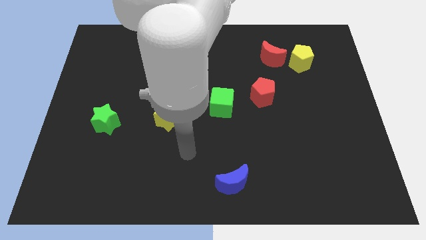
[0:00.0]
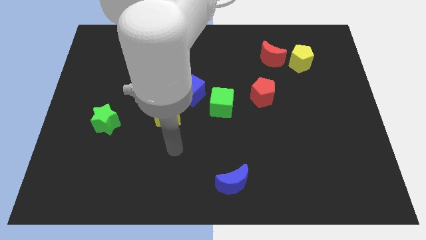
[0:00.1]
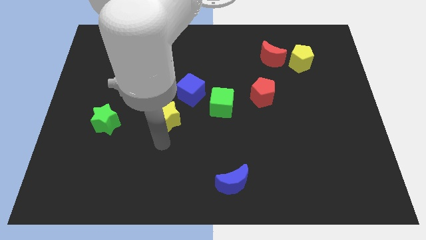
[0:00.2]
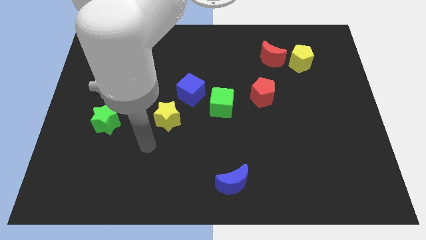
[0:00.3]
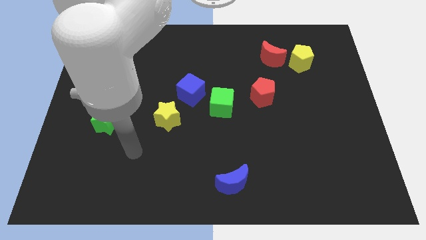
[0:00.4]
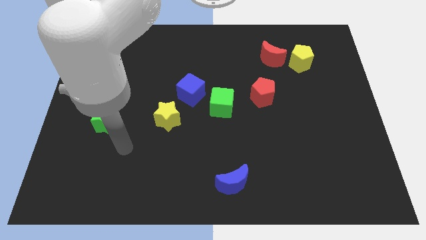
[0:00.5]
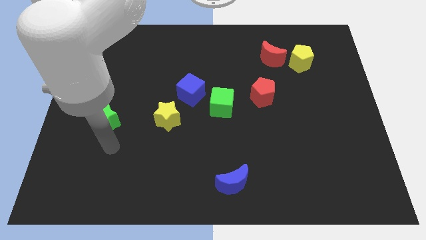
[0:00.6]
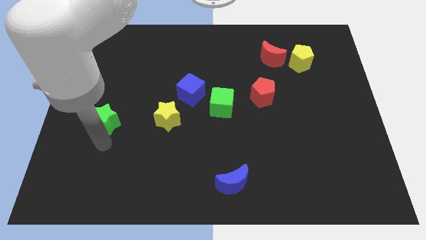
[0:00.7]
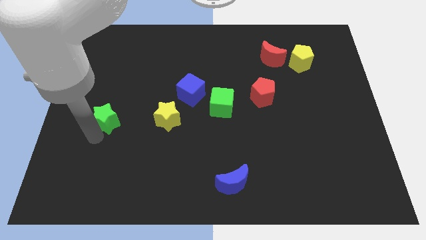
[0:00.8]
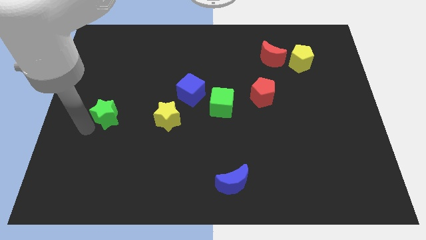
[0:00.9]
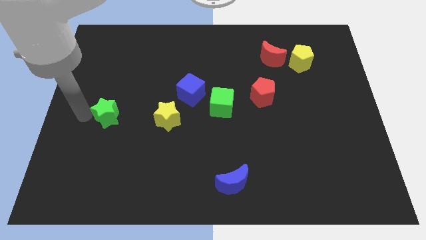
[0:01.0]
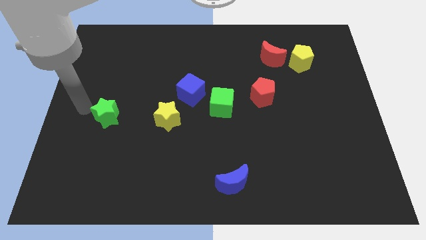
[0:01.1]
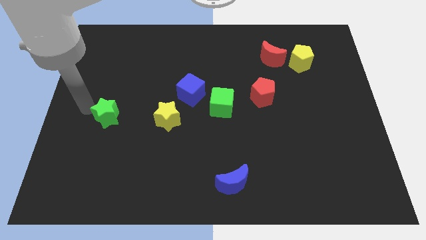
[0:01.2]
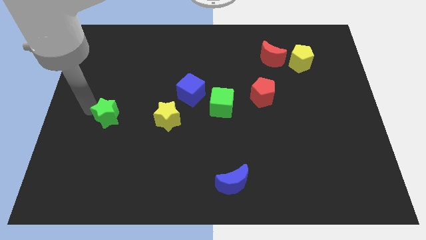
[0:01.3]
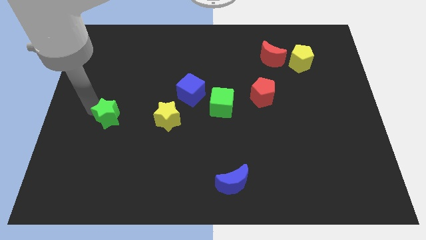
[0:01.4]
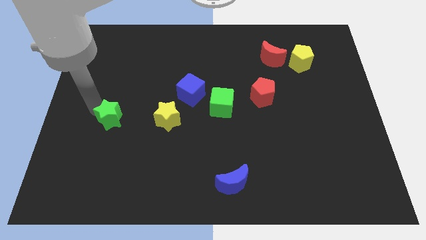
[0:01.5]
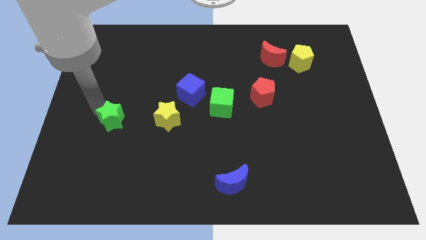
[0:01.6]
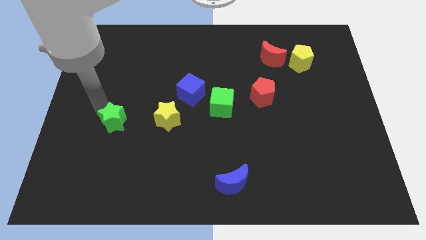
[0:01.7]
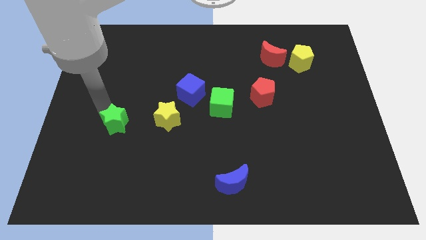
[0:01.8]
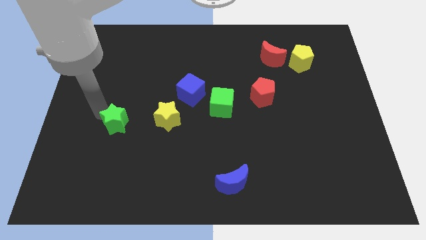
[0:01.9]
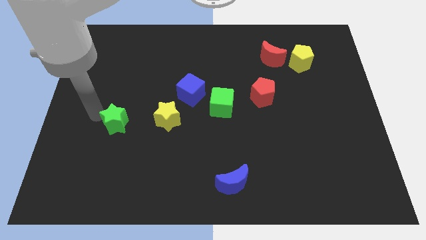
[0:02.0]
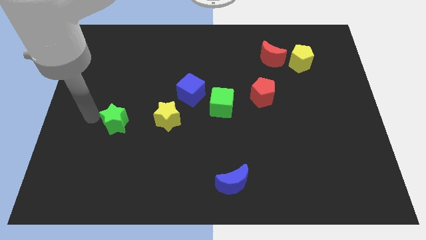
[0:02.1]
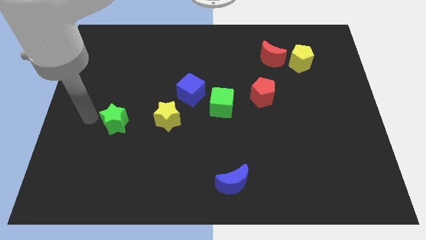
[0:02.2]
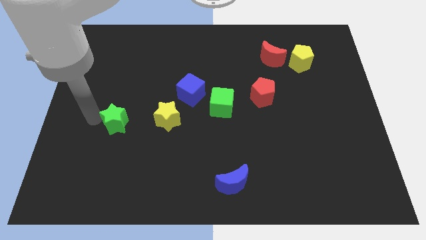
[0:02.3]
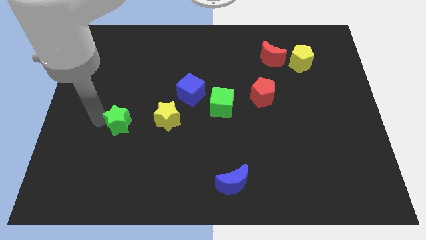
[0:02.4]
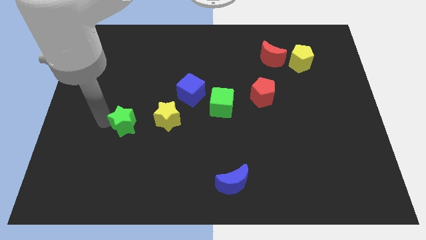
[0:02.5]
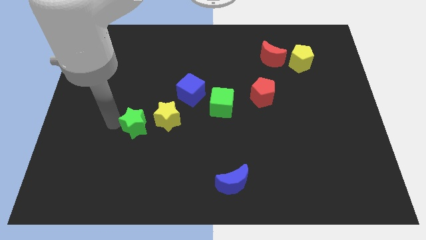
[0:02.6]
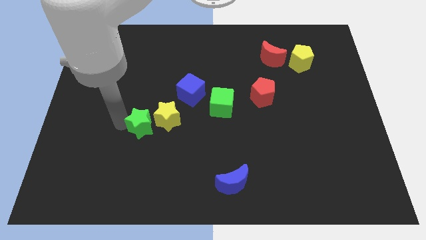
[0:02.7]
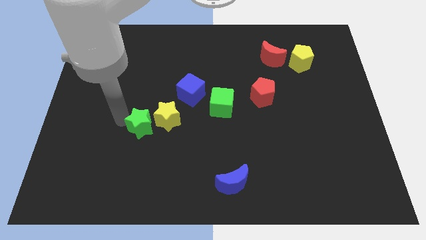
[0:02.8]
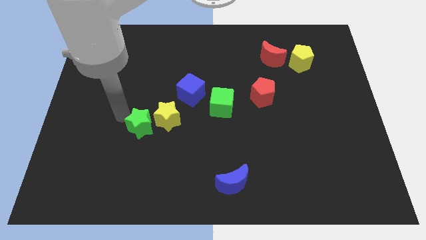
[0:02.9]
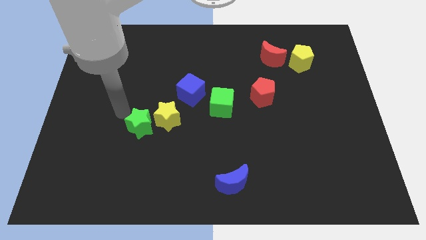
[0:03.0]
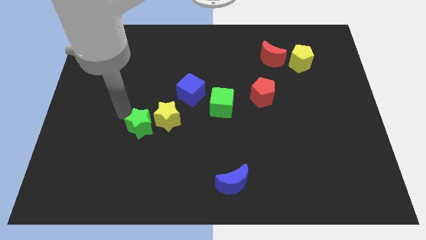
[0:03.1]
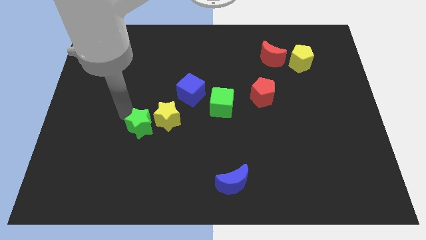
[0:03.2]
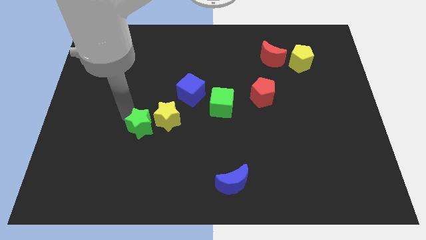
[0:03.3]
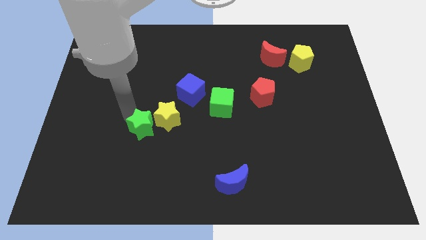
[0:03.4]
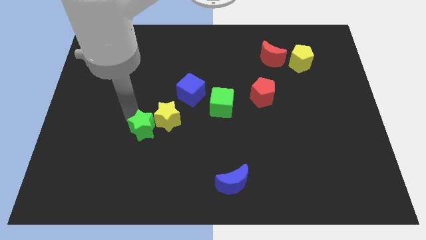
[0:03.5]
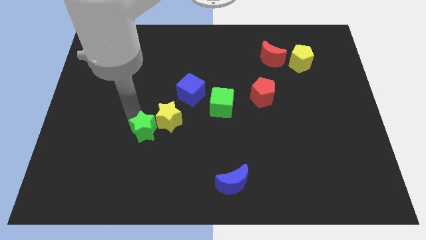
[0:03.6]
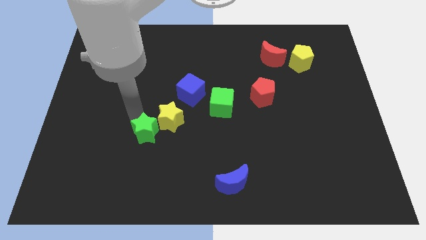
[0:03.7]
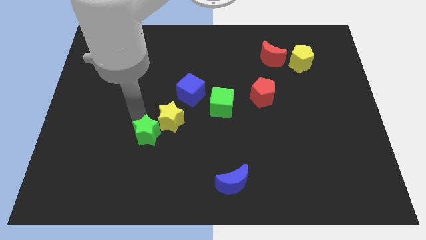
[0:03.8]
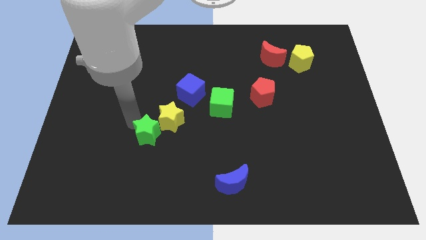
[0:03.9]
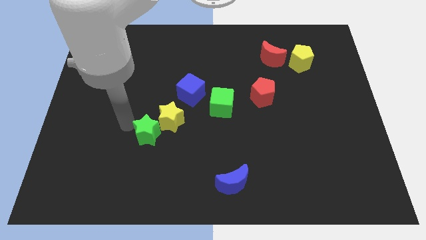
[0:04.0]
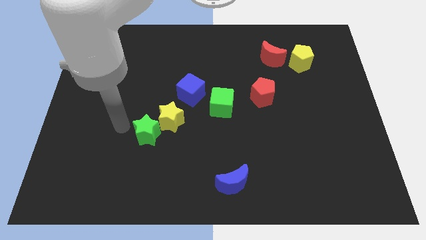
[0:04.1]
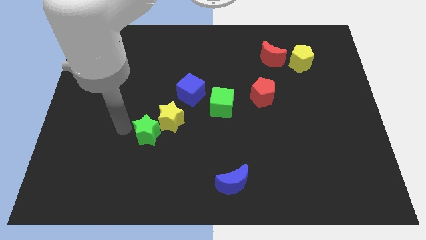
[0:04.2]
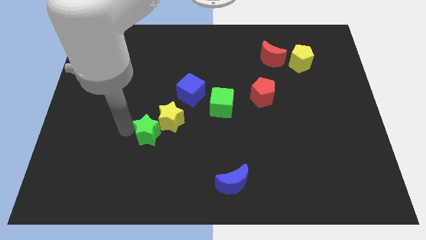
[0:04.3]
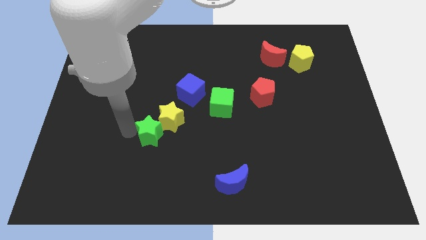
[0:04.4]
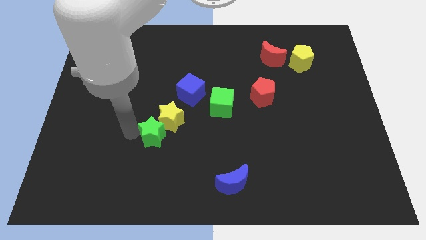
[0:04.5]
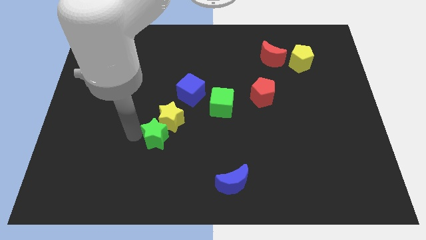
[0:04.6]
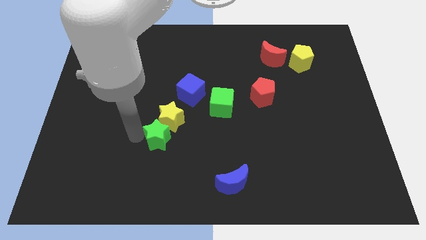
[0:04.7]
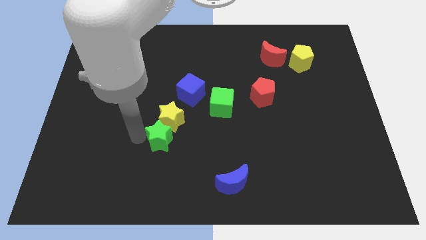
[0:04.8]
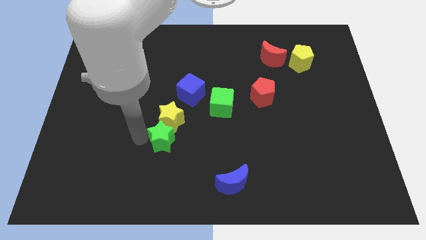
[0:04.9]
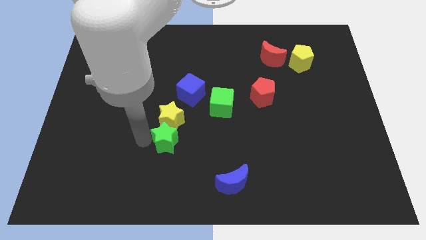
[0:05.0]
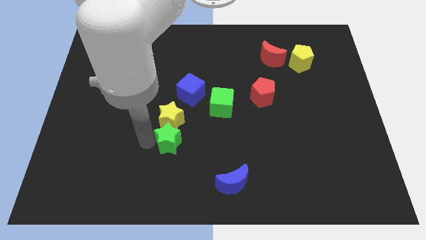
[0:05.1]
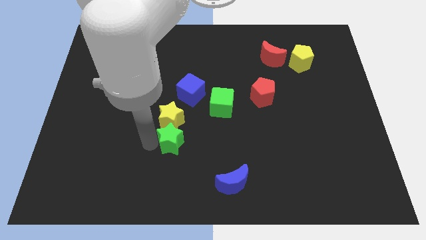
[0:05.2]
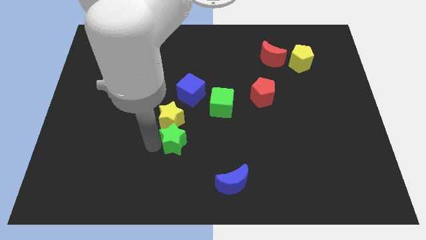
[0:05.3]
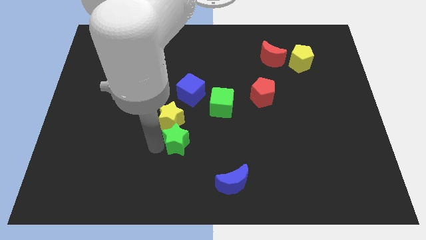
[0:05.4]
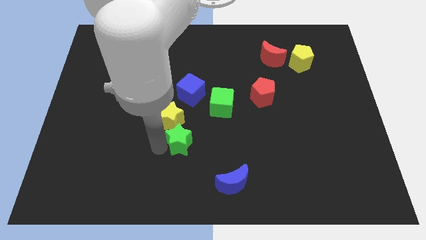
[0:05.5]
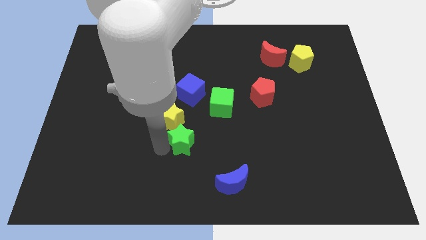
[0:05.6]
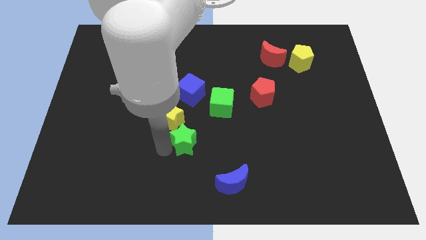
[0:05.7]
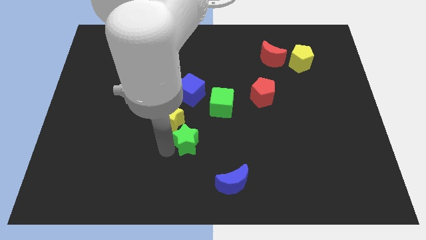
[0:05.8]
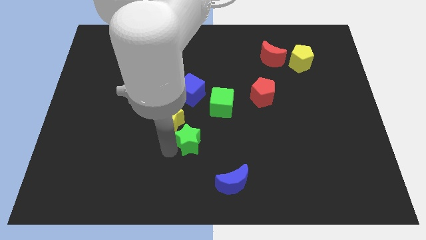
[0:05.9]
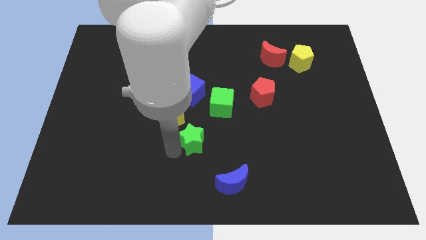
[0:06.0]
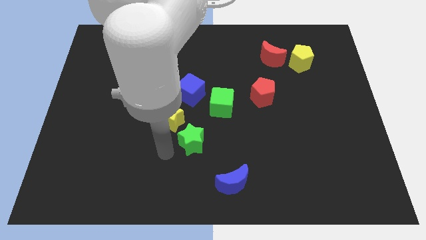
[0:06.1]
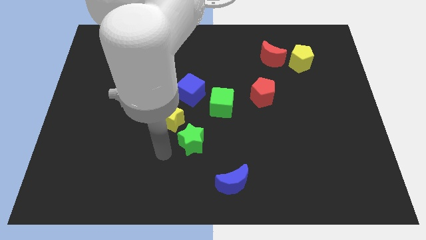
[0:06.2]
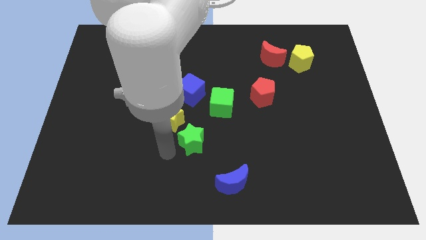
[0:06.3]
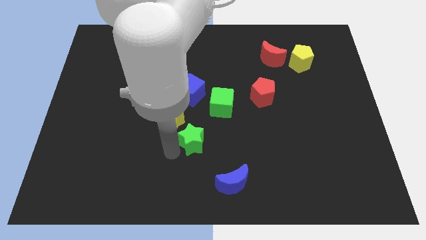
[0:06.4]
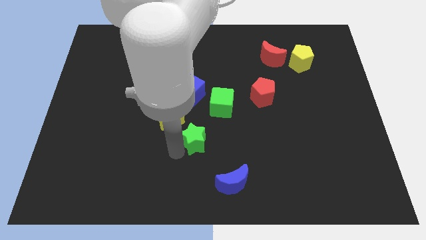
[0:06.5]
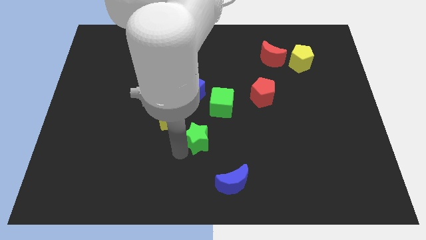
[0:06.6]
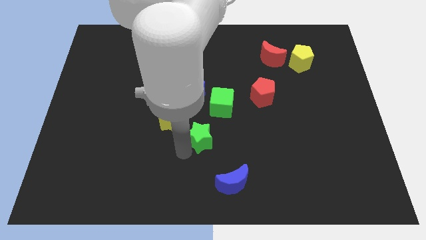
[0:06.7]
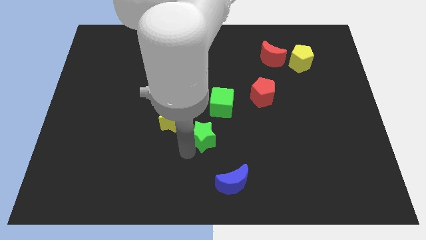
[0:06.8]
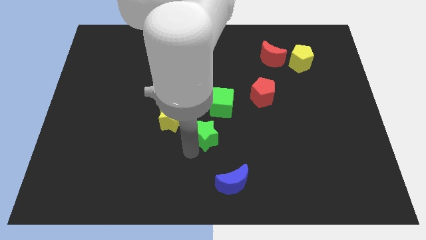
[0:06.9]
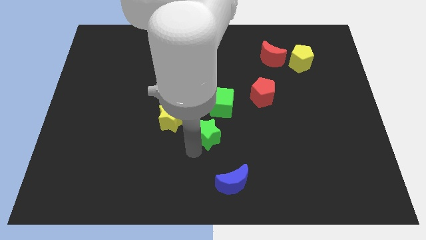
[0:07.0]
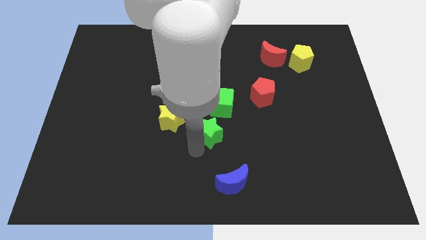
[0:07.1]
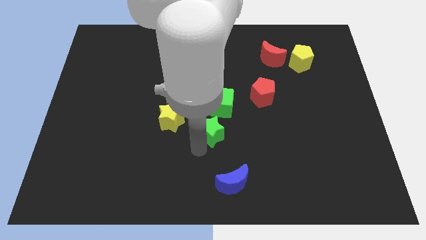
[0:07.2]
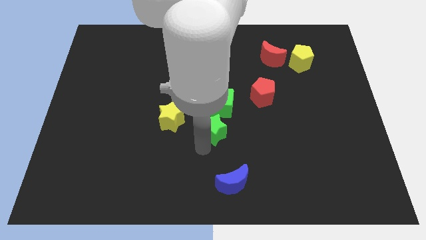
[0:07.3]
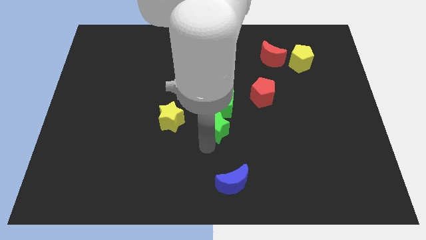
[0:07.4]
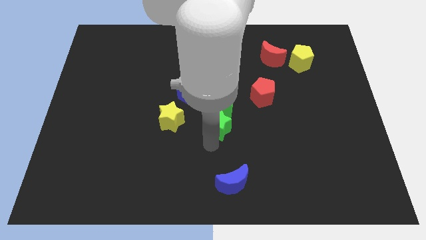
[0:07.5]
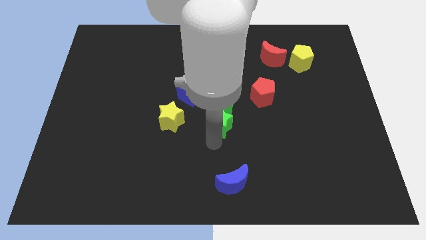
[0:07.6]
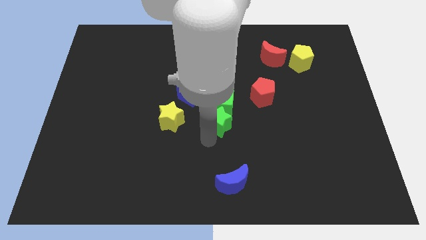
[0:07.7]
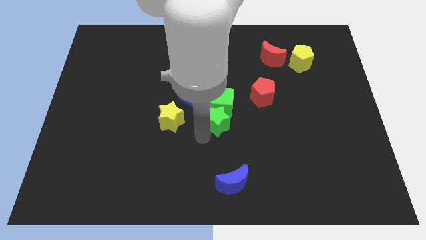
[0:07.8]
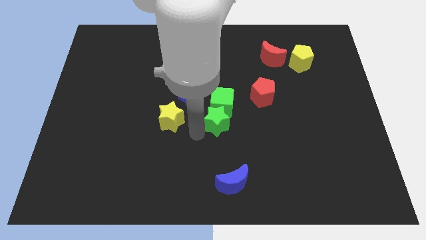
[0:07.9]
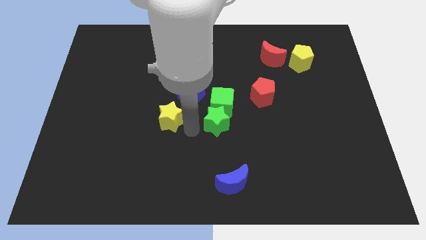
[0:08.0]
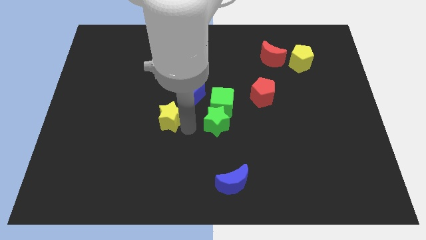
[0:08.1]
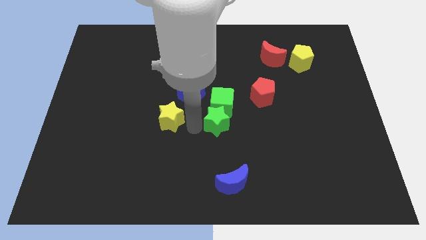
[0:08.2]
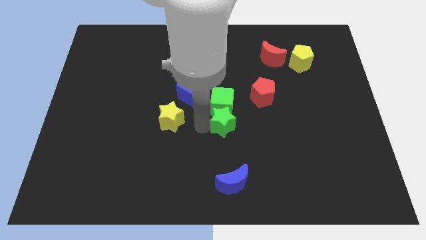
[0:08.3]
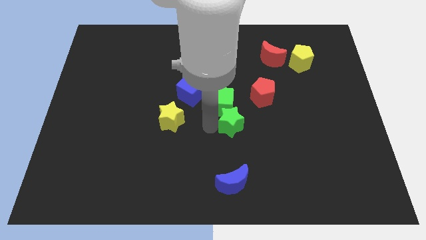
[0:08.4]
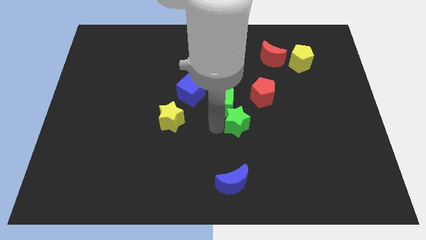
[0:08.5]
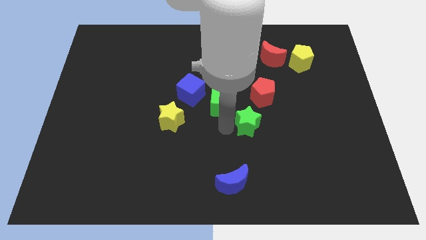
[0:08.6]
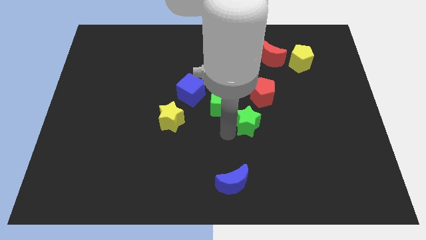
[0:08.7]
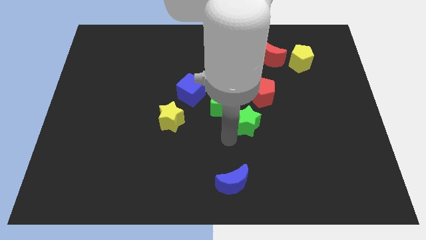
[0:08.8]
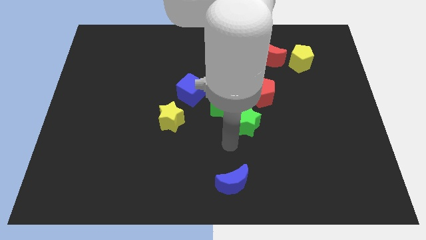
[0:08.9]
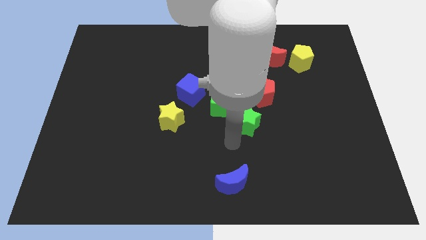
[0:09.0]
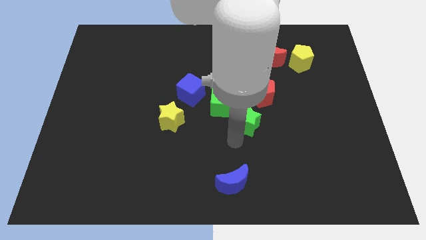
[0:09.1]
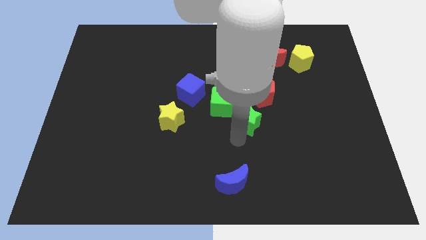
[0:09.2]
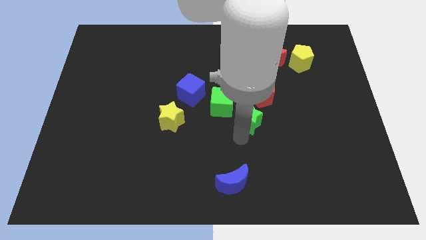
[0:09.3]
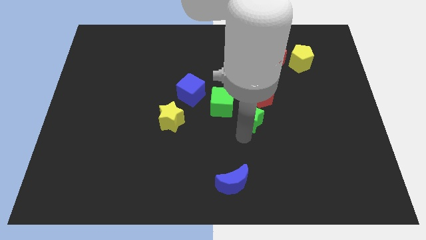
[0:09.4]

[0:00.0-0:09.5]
put the green star just right of the green cube
